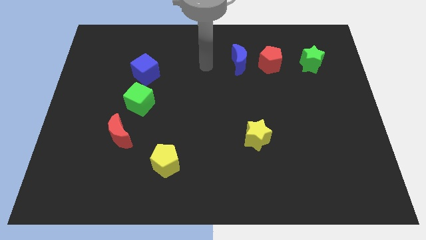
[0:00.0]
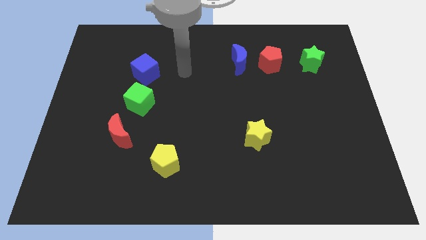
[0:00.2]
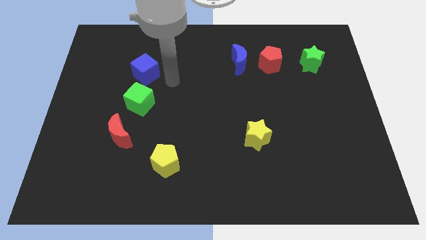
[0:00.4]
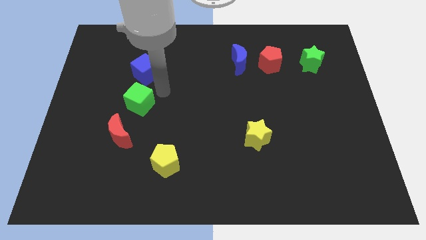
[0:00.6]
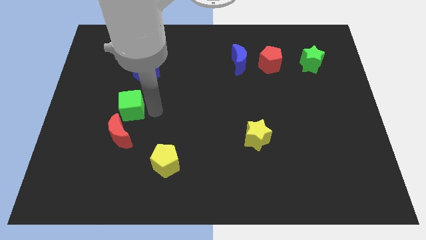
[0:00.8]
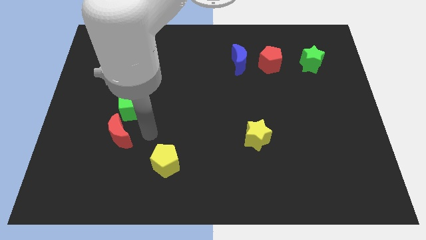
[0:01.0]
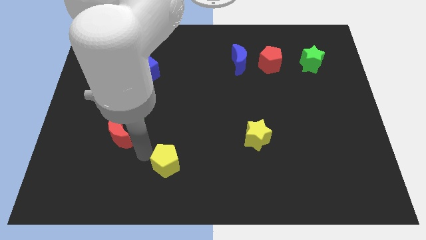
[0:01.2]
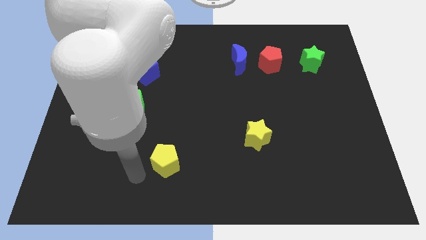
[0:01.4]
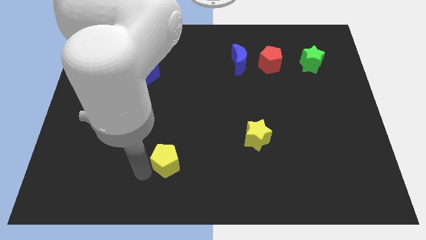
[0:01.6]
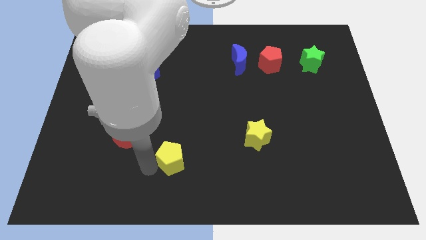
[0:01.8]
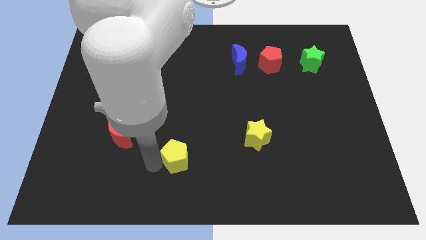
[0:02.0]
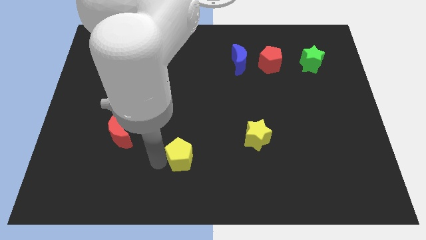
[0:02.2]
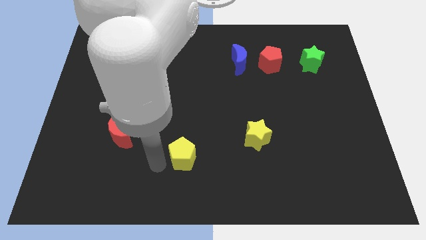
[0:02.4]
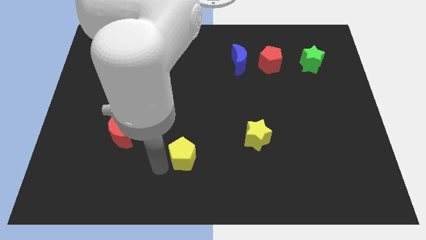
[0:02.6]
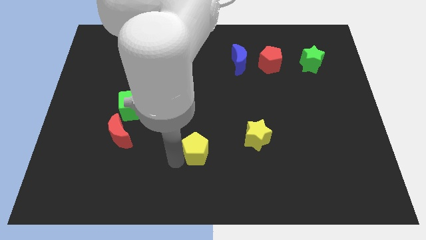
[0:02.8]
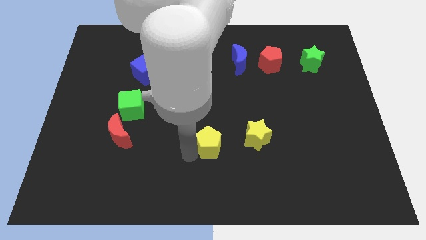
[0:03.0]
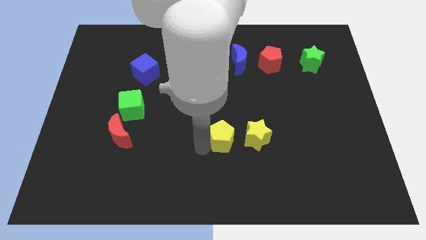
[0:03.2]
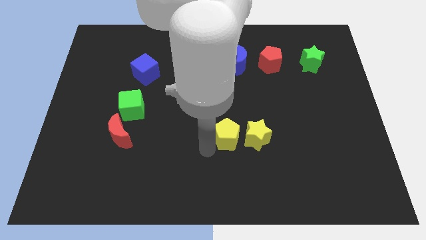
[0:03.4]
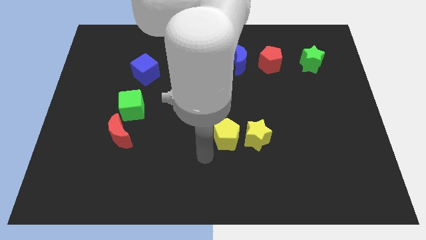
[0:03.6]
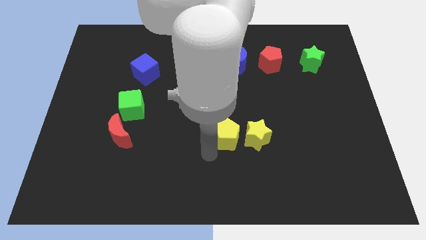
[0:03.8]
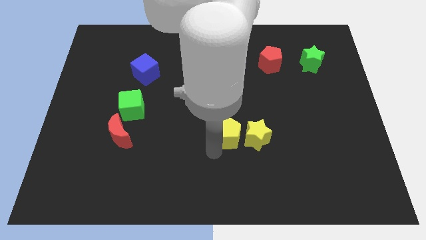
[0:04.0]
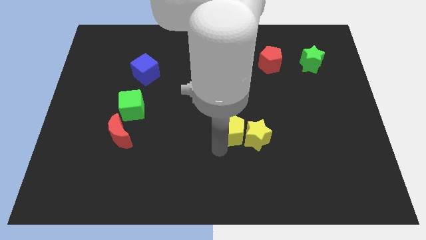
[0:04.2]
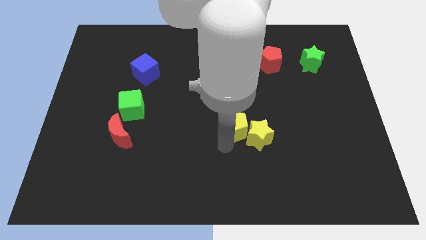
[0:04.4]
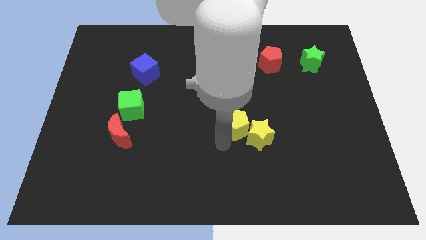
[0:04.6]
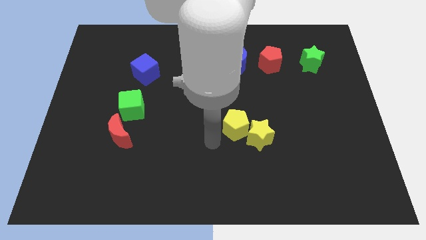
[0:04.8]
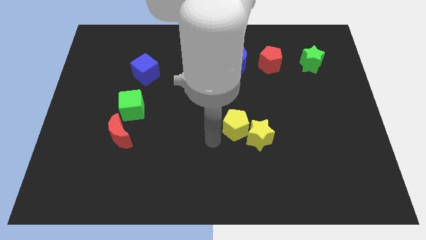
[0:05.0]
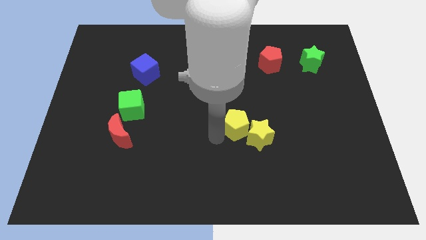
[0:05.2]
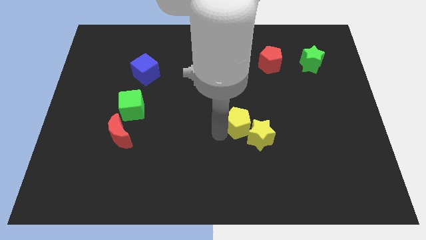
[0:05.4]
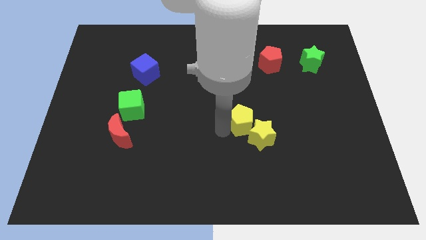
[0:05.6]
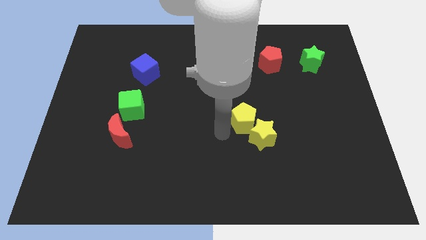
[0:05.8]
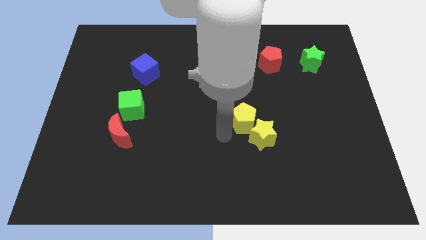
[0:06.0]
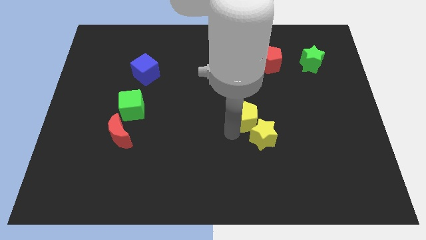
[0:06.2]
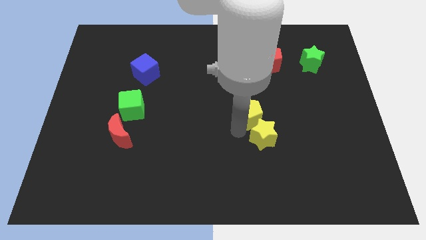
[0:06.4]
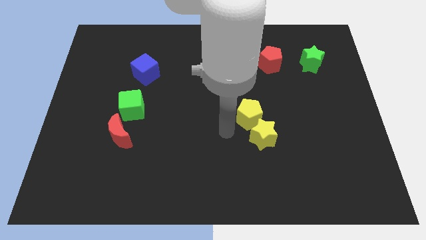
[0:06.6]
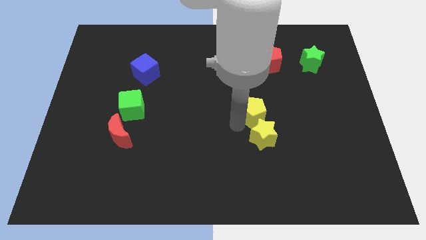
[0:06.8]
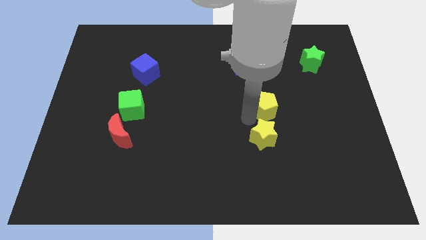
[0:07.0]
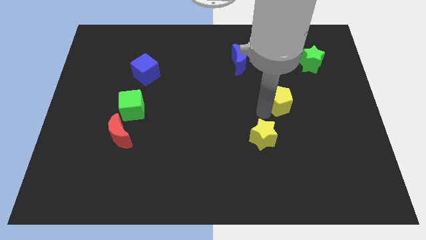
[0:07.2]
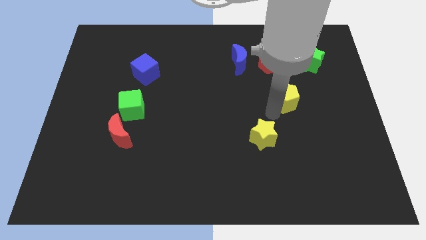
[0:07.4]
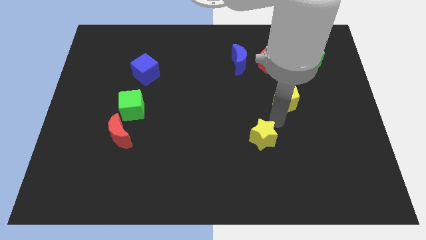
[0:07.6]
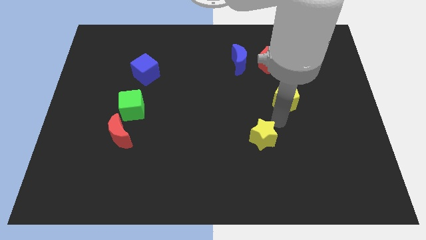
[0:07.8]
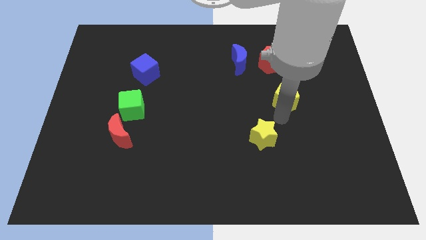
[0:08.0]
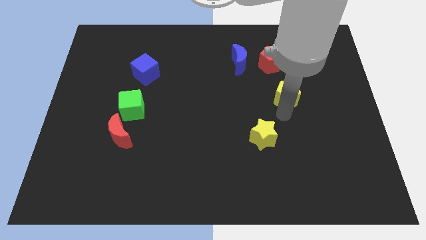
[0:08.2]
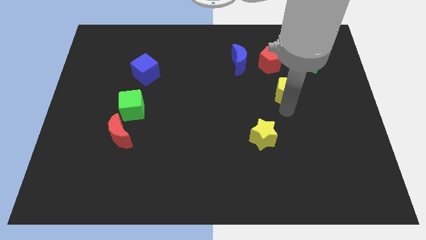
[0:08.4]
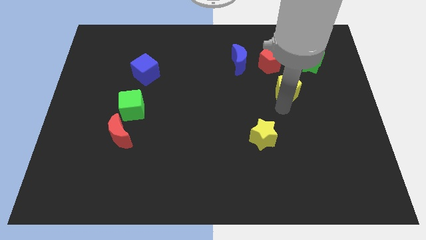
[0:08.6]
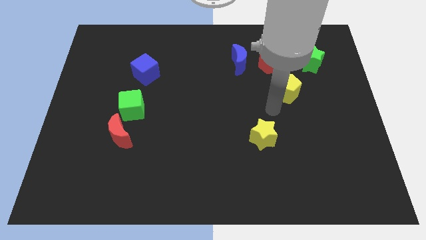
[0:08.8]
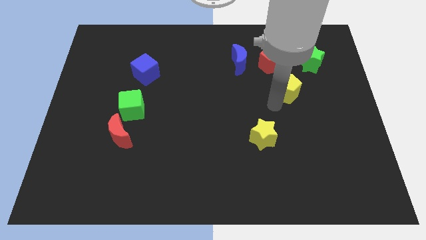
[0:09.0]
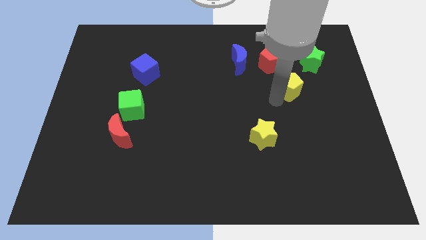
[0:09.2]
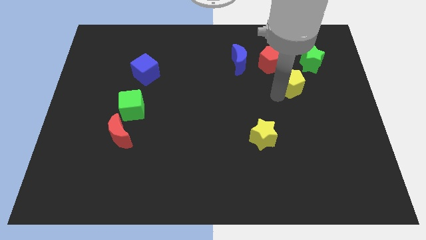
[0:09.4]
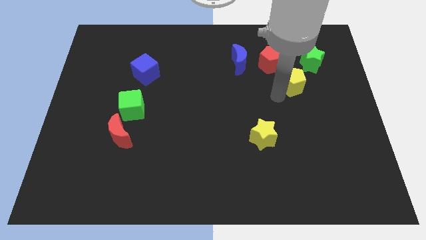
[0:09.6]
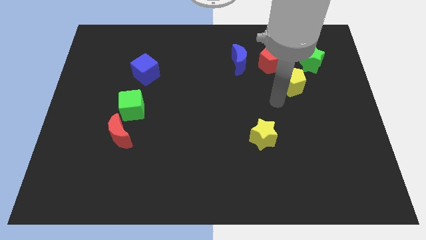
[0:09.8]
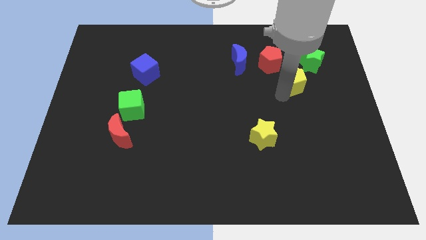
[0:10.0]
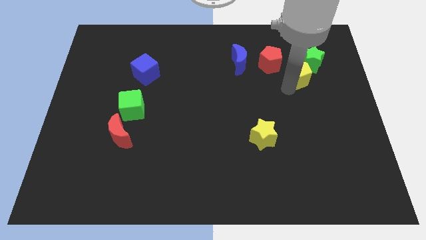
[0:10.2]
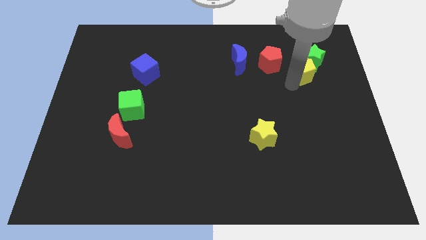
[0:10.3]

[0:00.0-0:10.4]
push the yellow pentagon to the green star

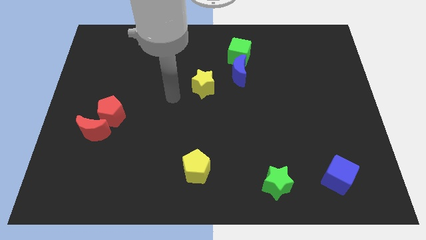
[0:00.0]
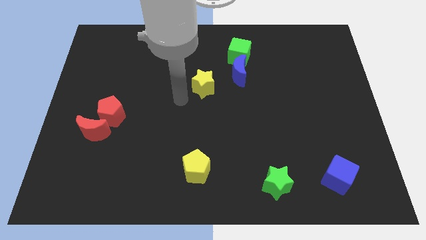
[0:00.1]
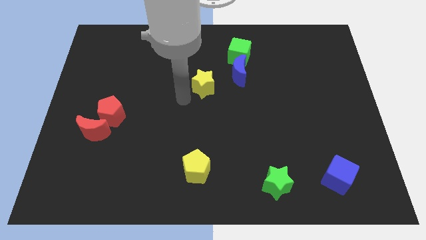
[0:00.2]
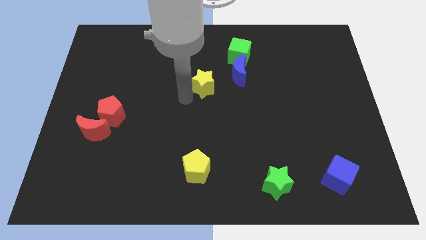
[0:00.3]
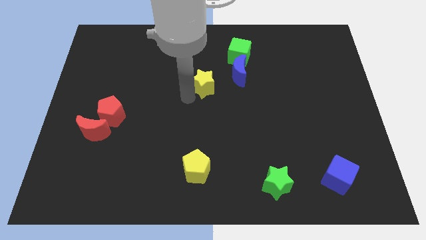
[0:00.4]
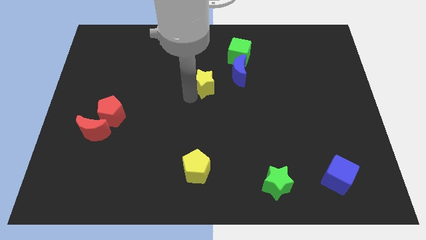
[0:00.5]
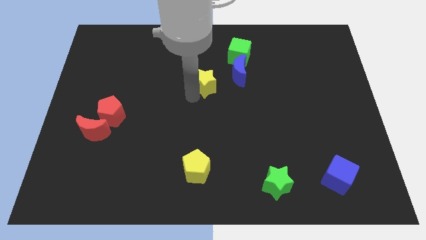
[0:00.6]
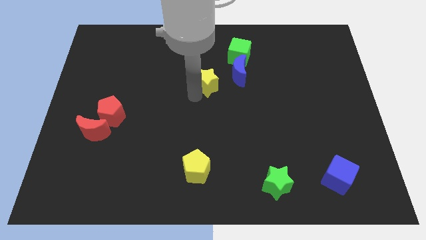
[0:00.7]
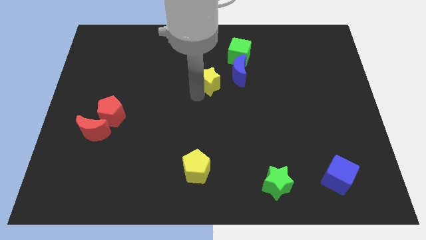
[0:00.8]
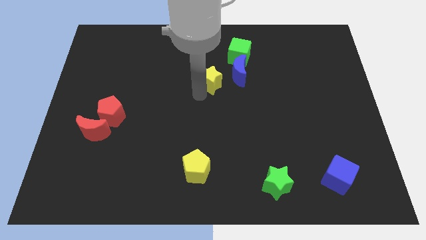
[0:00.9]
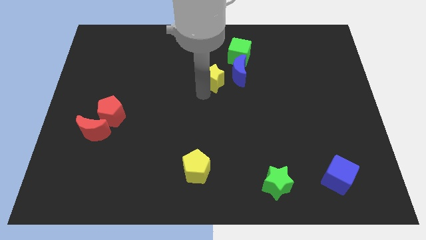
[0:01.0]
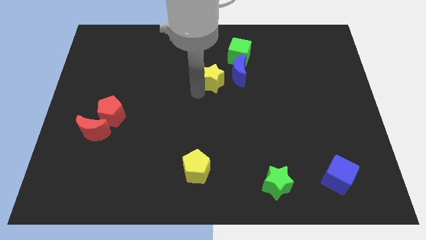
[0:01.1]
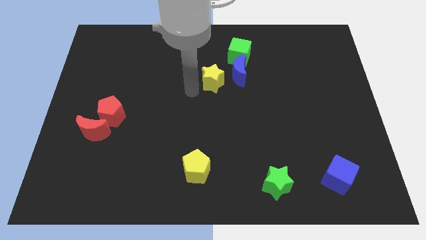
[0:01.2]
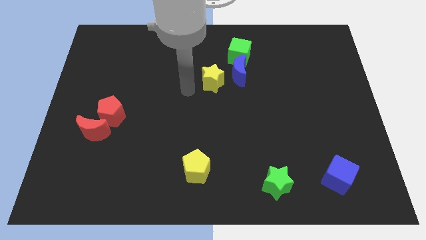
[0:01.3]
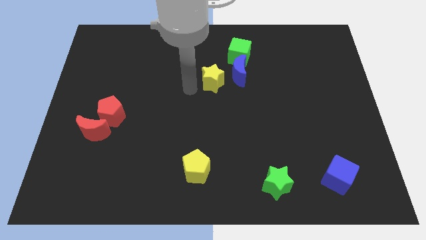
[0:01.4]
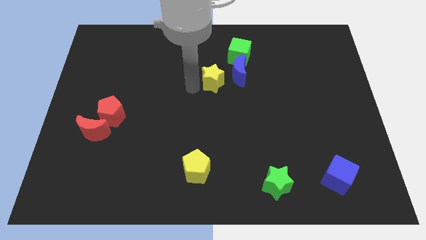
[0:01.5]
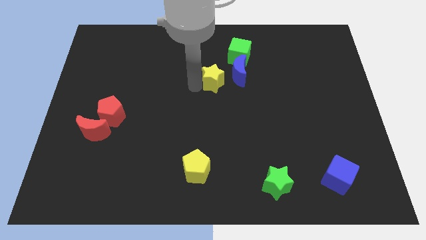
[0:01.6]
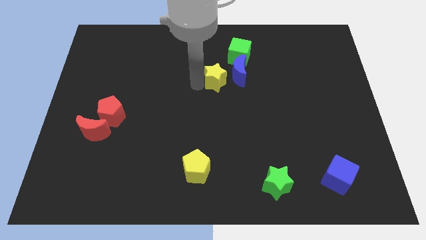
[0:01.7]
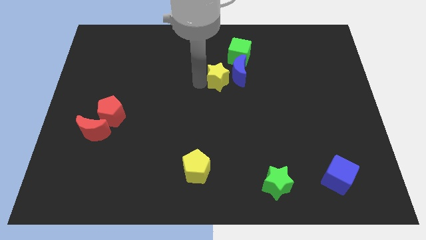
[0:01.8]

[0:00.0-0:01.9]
move the yellow star next to the blue moon

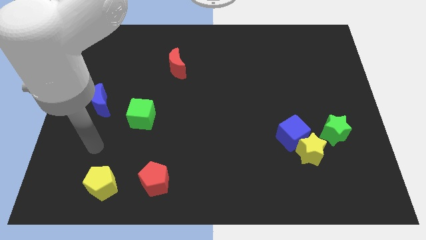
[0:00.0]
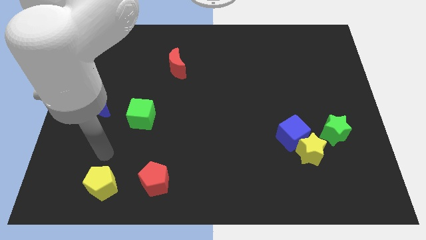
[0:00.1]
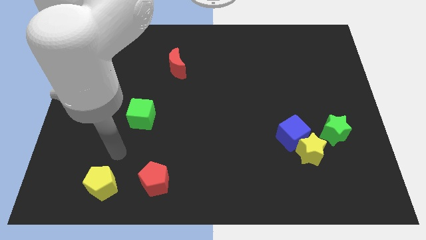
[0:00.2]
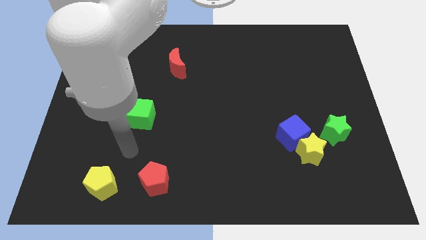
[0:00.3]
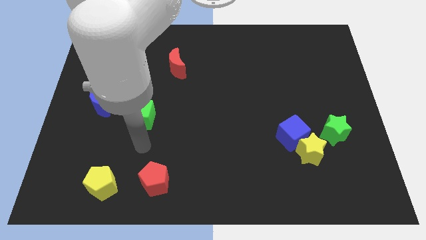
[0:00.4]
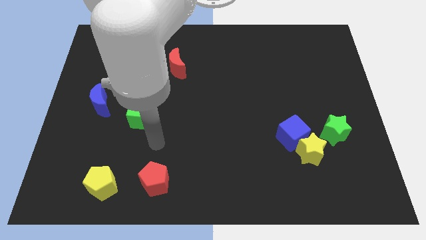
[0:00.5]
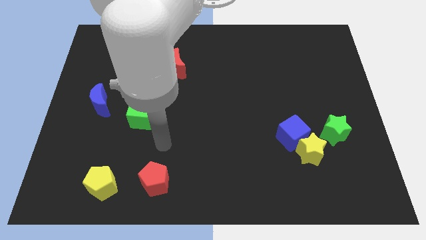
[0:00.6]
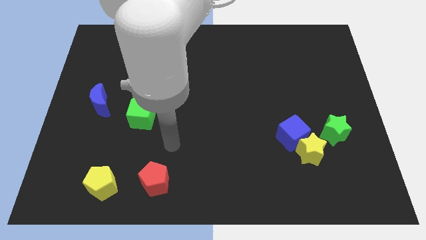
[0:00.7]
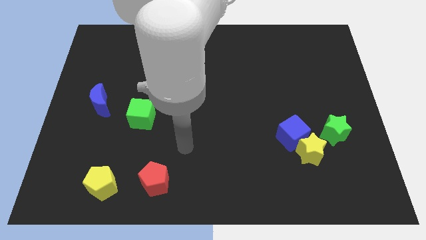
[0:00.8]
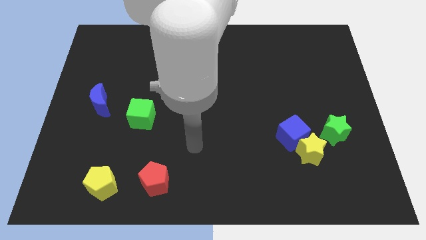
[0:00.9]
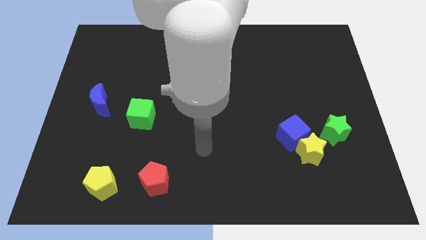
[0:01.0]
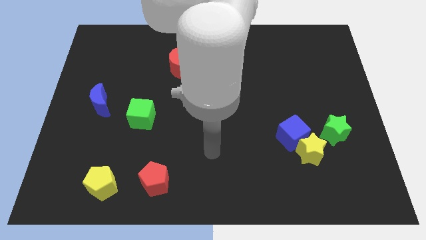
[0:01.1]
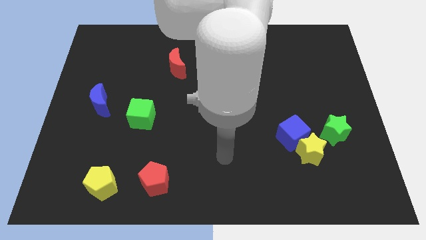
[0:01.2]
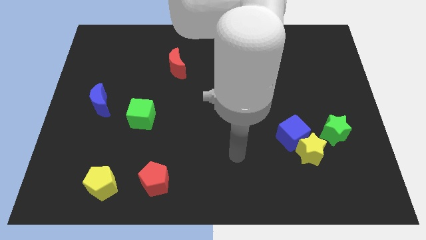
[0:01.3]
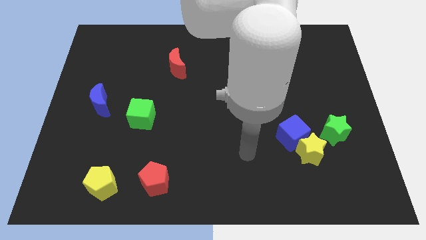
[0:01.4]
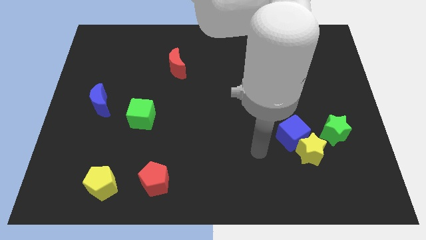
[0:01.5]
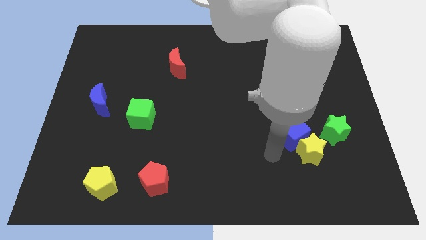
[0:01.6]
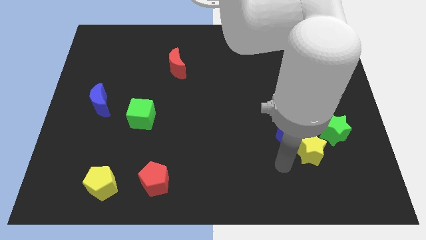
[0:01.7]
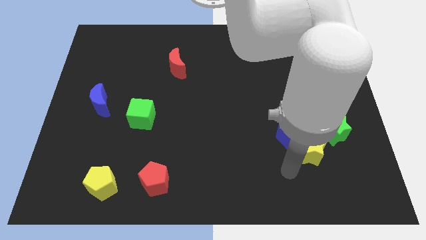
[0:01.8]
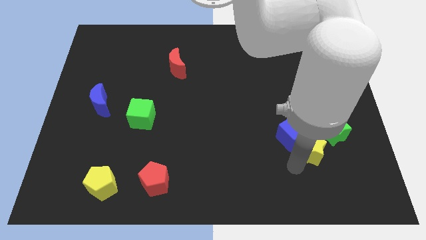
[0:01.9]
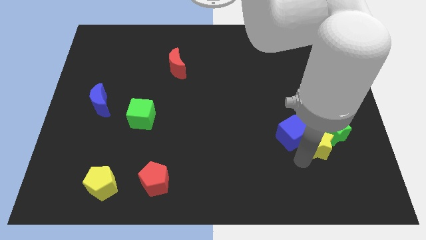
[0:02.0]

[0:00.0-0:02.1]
slide the yellow star towards the green star
